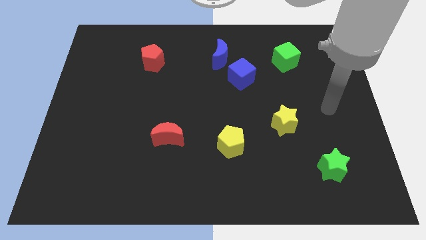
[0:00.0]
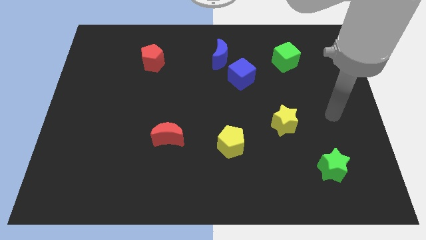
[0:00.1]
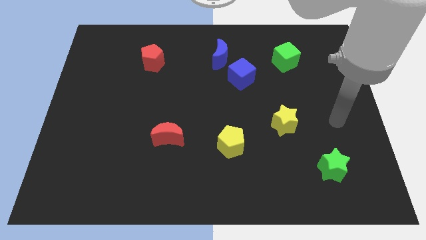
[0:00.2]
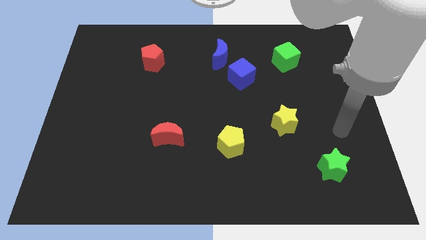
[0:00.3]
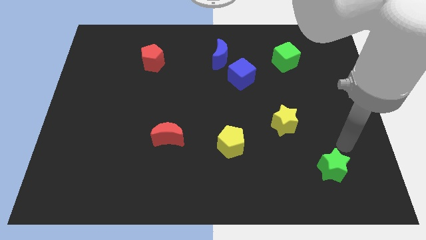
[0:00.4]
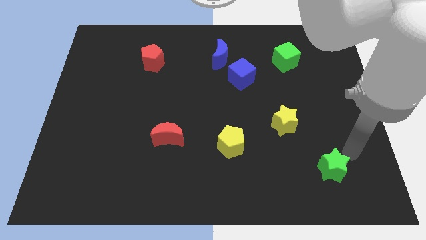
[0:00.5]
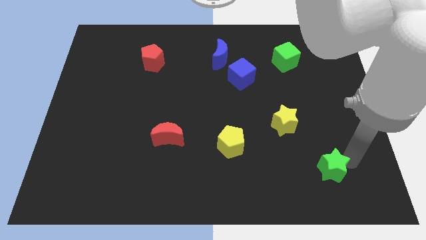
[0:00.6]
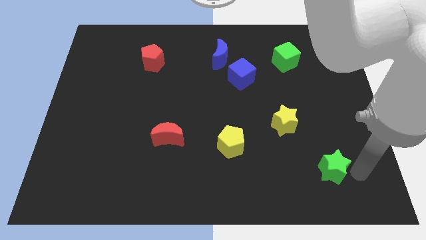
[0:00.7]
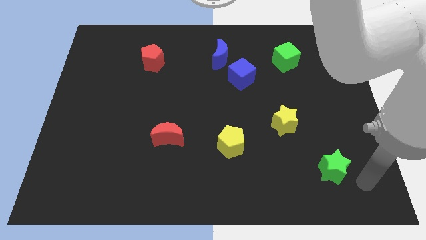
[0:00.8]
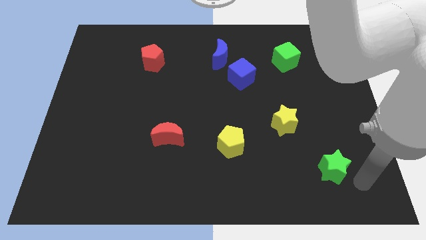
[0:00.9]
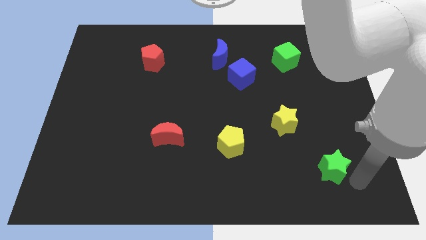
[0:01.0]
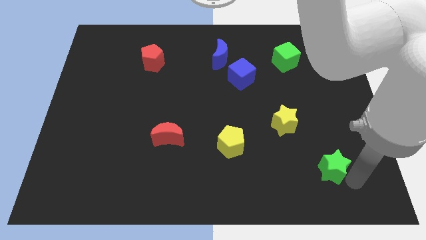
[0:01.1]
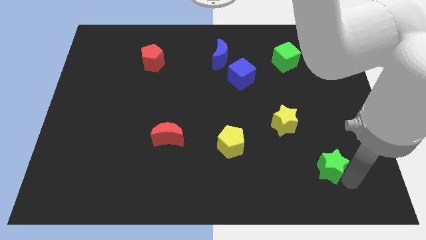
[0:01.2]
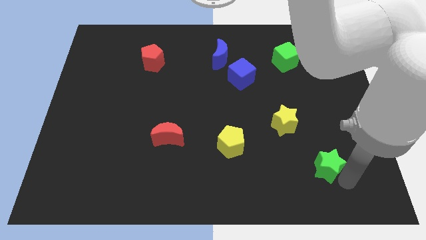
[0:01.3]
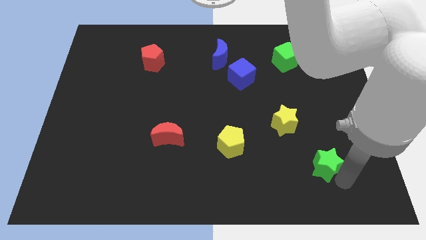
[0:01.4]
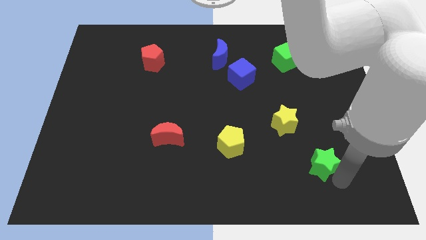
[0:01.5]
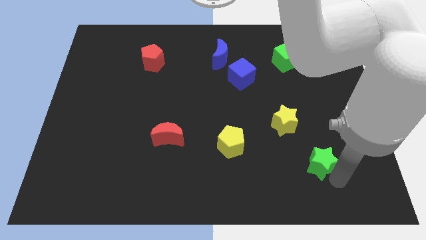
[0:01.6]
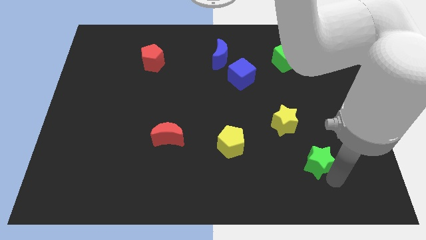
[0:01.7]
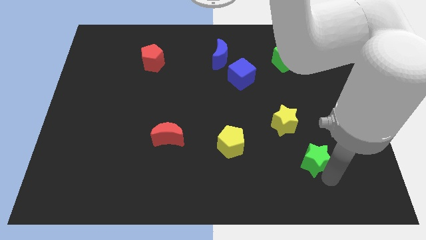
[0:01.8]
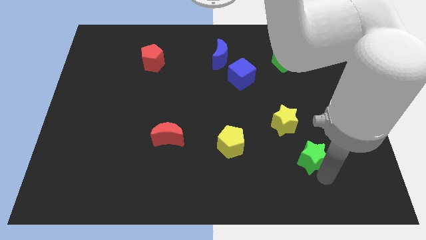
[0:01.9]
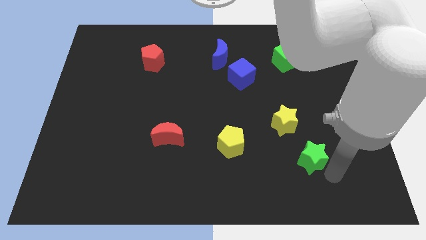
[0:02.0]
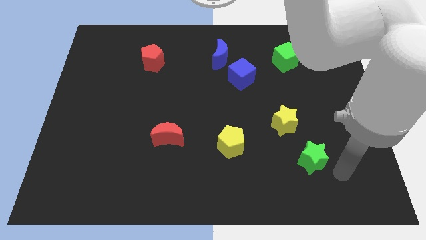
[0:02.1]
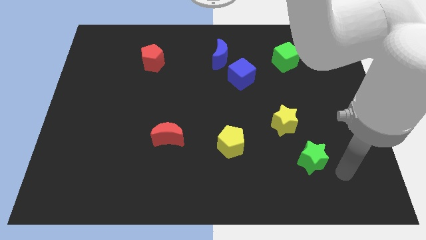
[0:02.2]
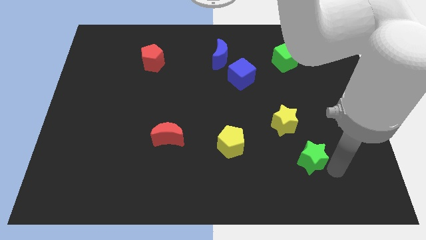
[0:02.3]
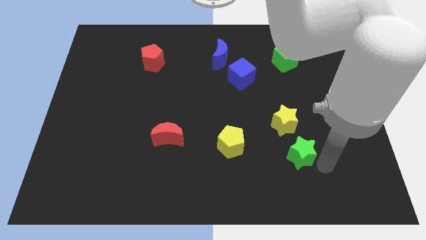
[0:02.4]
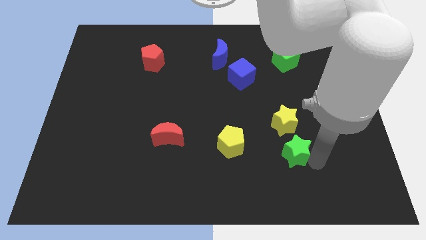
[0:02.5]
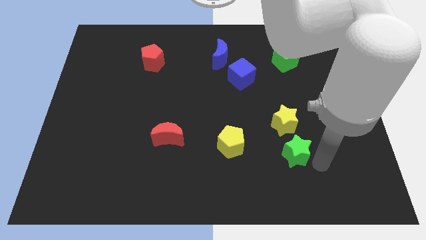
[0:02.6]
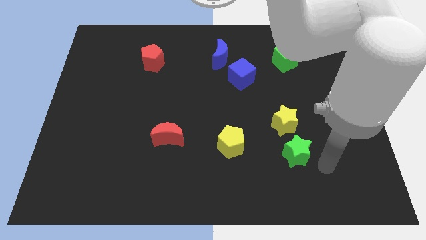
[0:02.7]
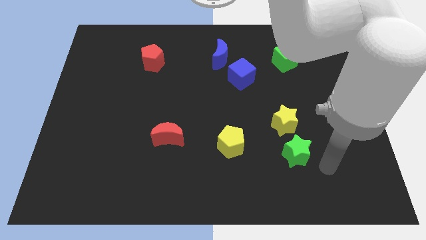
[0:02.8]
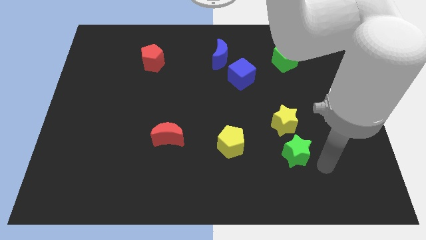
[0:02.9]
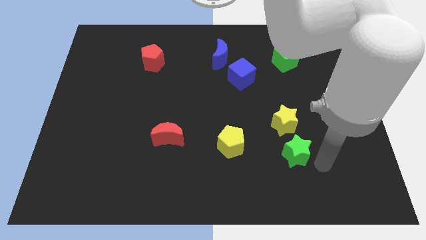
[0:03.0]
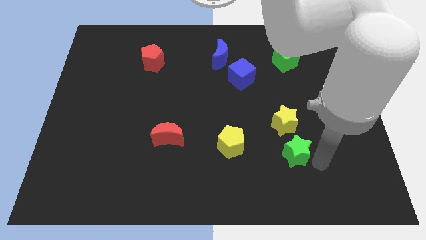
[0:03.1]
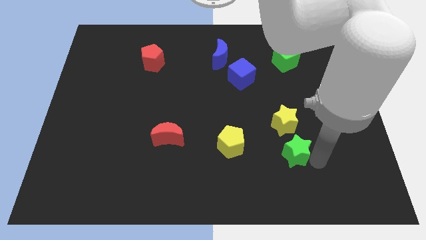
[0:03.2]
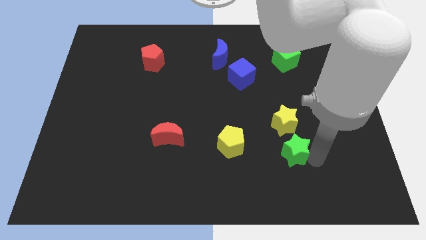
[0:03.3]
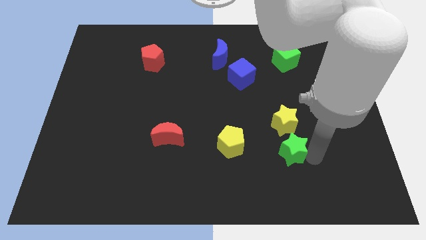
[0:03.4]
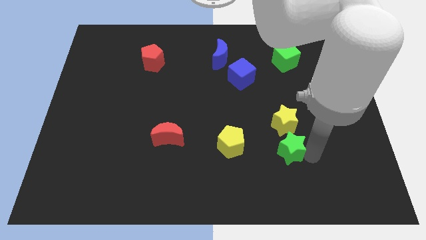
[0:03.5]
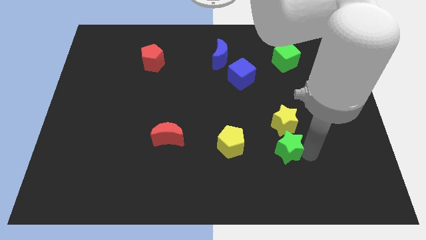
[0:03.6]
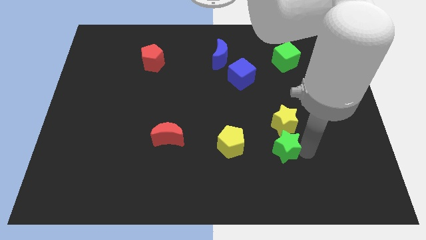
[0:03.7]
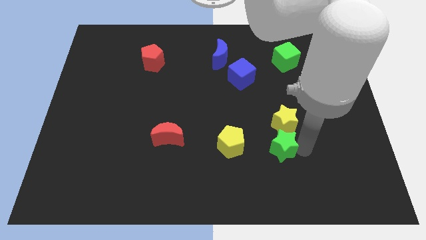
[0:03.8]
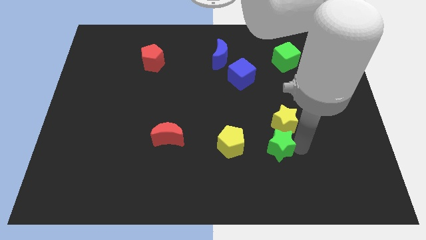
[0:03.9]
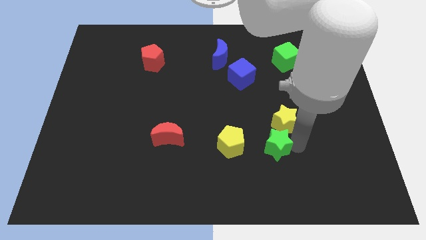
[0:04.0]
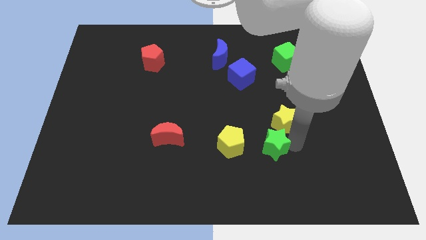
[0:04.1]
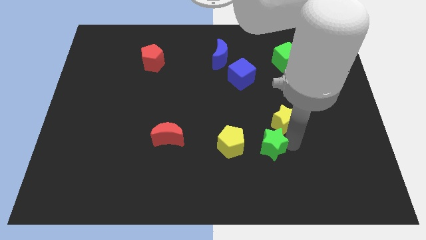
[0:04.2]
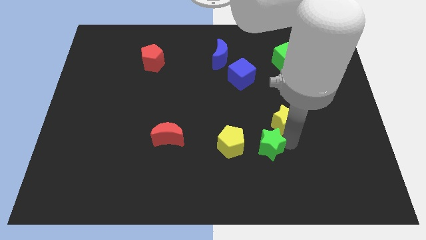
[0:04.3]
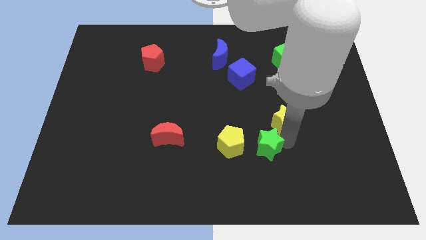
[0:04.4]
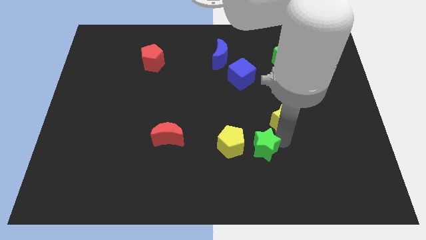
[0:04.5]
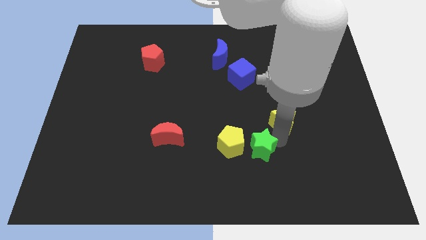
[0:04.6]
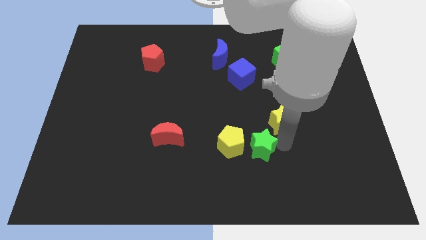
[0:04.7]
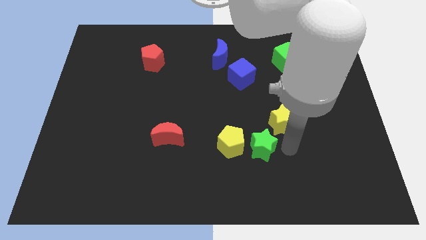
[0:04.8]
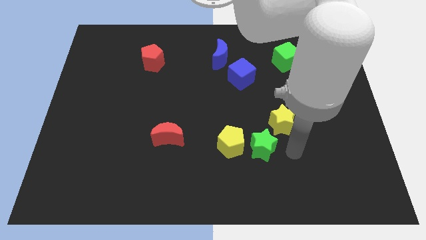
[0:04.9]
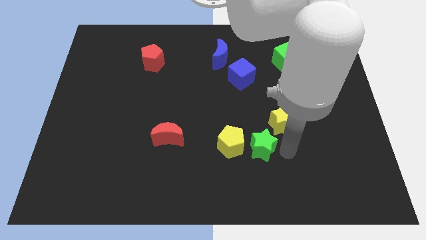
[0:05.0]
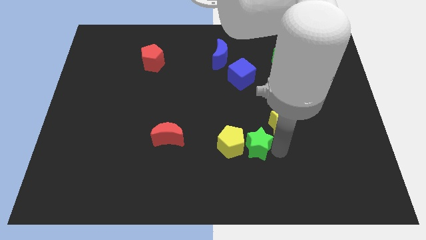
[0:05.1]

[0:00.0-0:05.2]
put the green star to the yellow pentagon

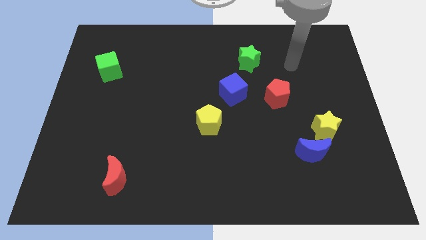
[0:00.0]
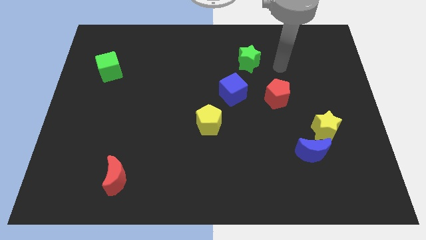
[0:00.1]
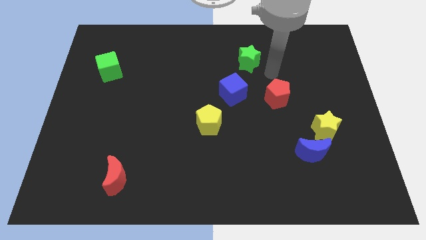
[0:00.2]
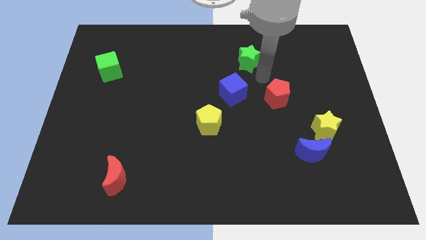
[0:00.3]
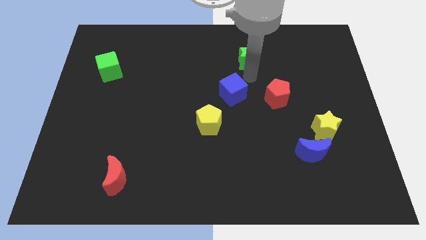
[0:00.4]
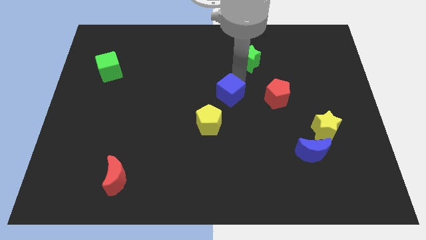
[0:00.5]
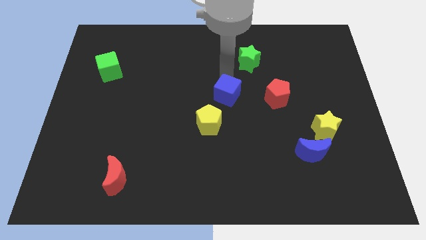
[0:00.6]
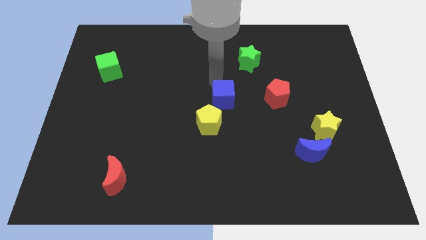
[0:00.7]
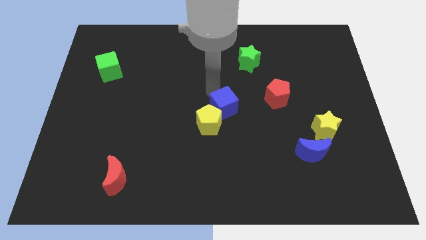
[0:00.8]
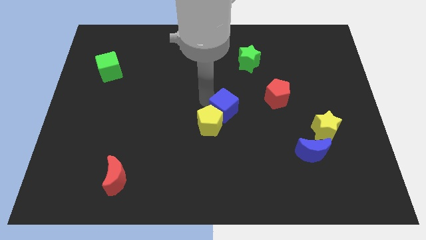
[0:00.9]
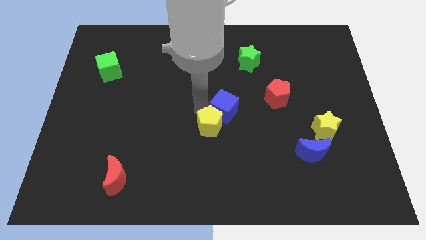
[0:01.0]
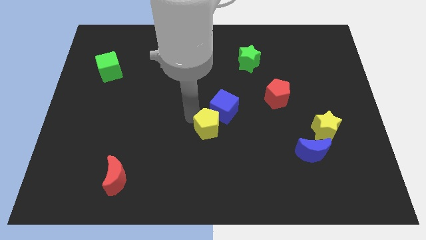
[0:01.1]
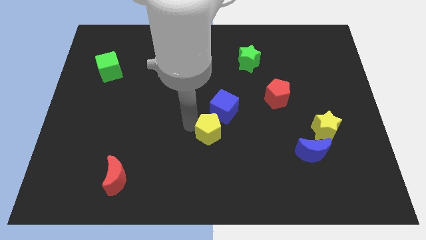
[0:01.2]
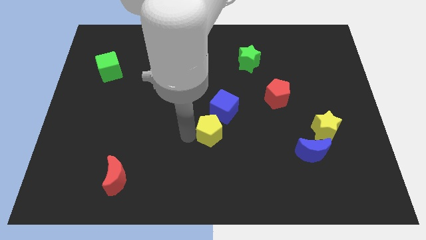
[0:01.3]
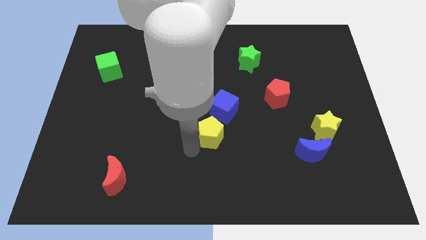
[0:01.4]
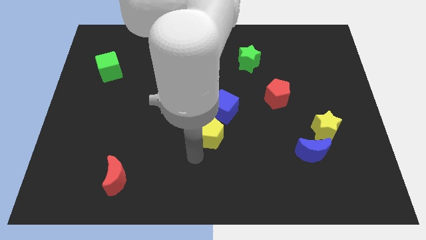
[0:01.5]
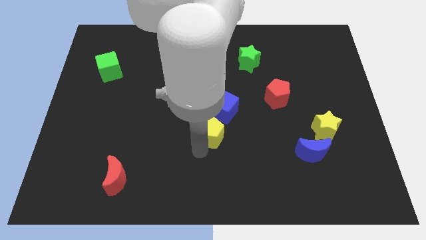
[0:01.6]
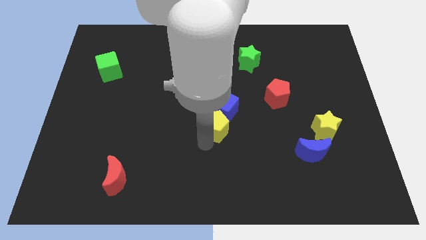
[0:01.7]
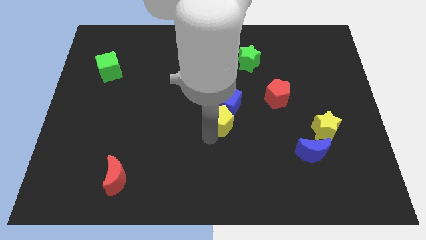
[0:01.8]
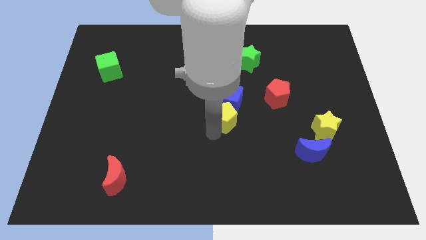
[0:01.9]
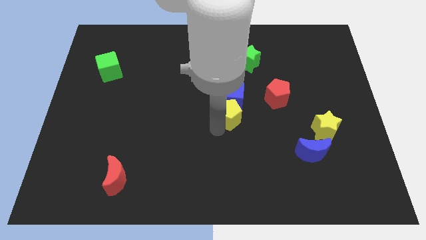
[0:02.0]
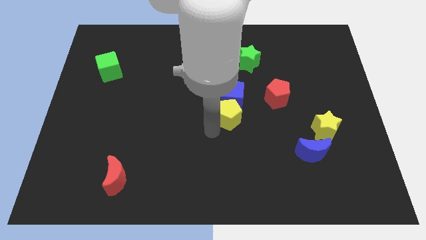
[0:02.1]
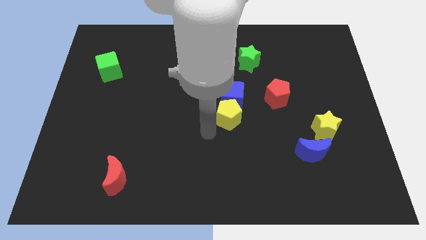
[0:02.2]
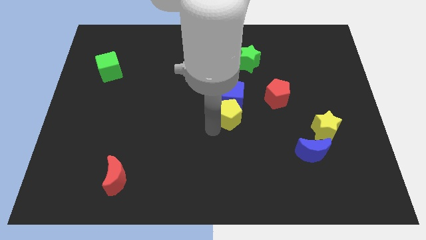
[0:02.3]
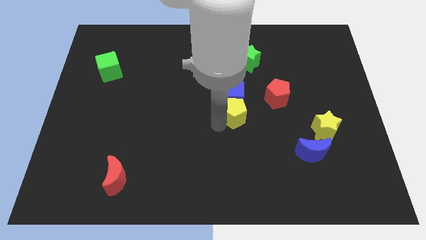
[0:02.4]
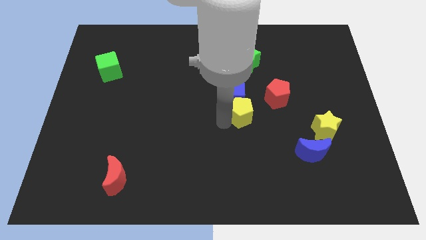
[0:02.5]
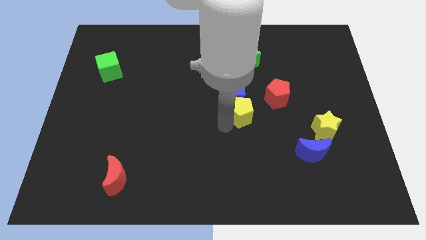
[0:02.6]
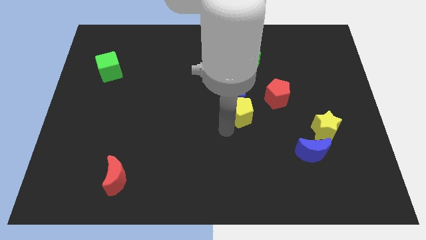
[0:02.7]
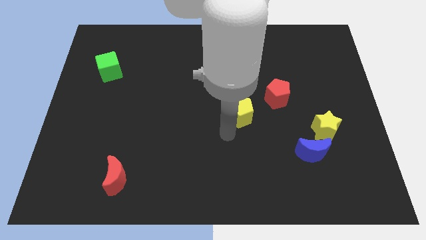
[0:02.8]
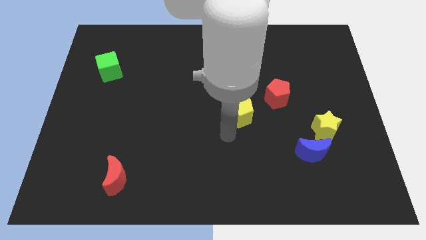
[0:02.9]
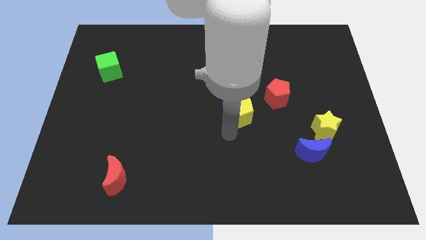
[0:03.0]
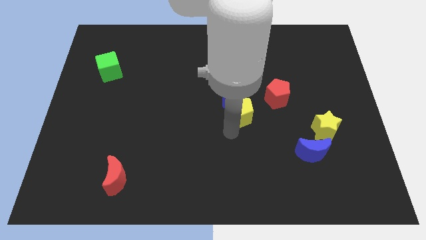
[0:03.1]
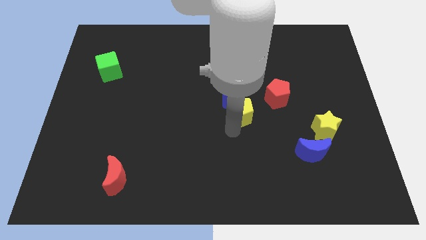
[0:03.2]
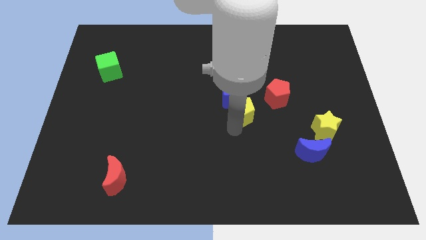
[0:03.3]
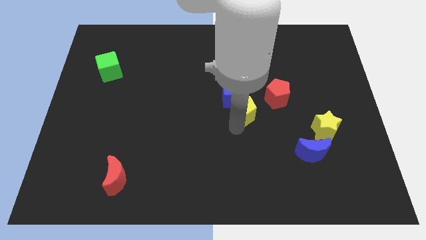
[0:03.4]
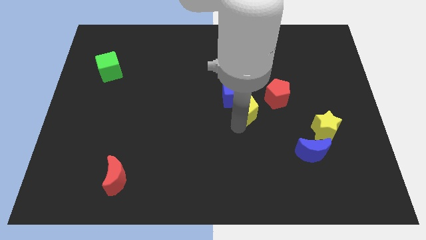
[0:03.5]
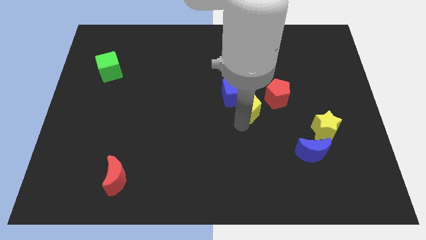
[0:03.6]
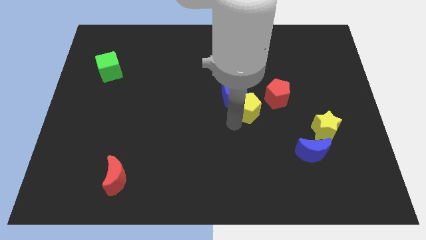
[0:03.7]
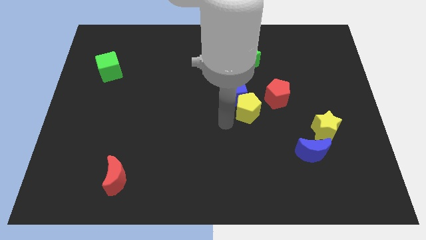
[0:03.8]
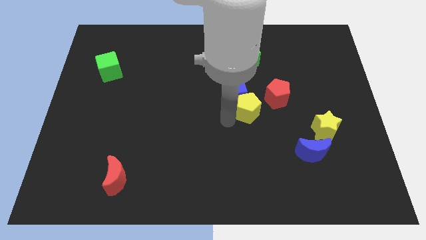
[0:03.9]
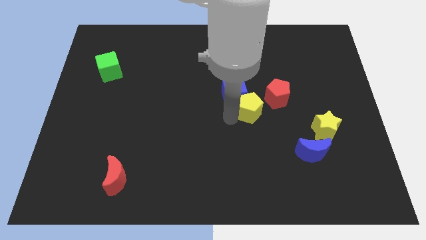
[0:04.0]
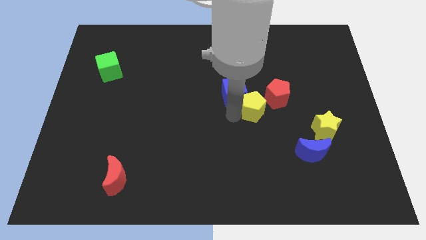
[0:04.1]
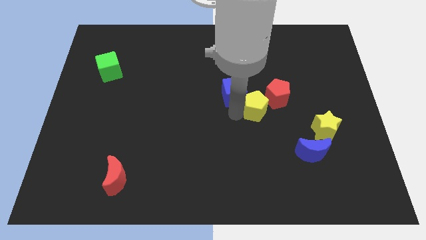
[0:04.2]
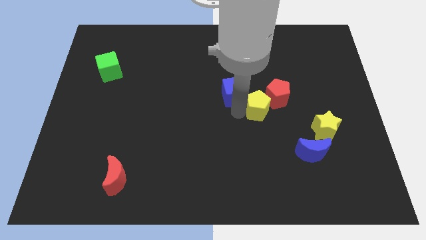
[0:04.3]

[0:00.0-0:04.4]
slide the yellow pentagon to the red pentagon
